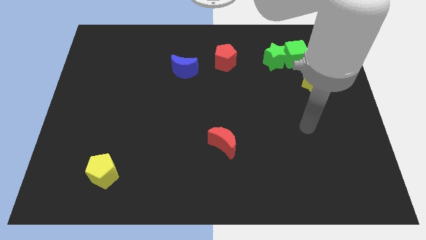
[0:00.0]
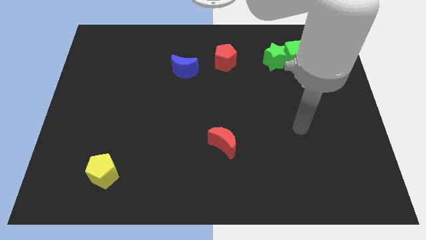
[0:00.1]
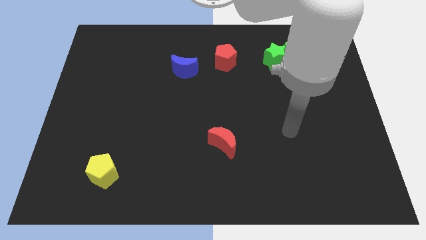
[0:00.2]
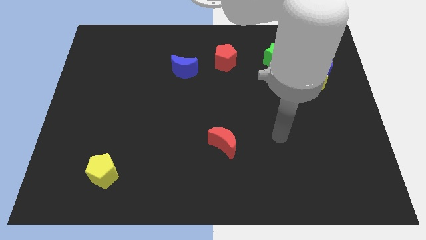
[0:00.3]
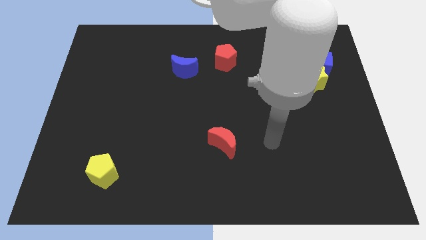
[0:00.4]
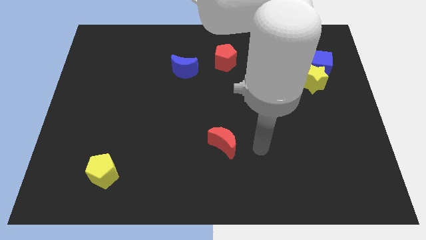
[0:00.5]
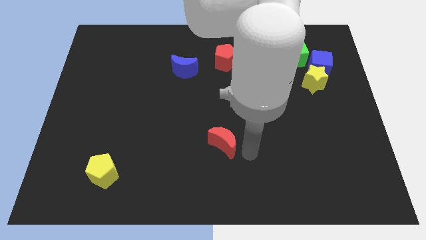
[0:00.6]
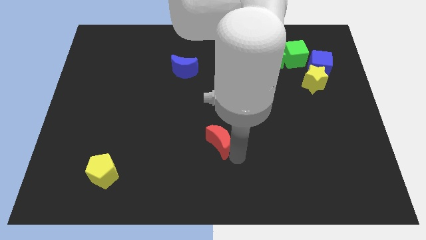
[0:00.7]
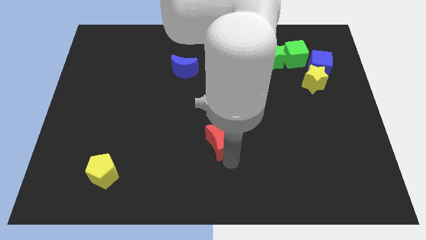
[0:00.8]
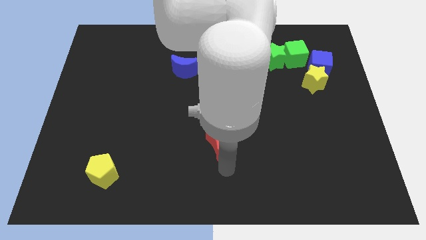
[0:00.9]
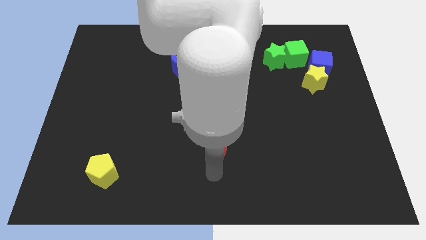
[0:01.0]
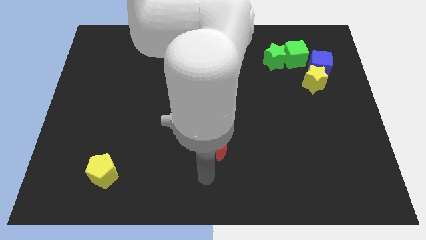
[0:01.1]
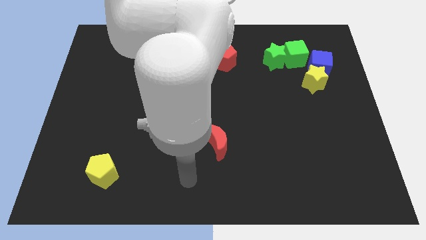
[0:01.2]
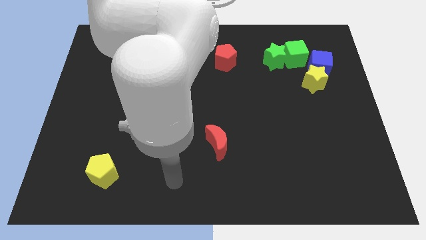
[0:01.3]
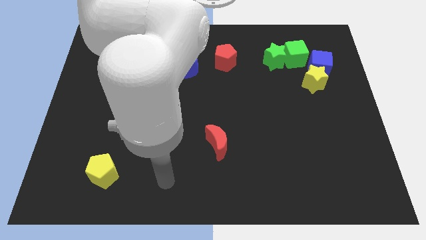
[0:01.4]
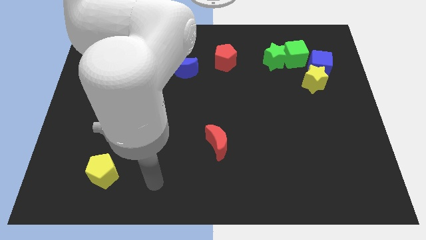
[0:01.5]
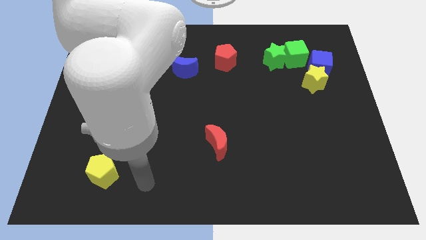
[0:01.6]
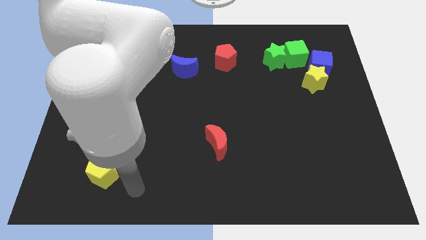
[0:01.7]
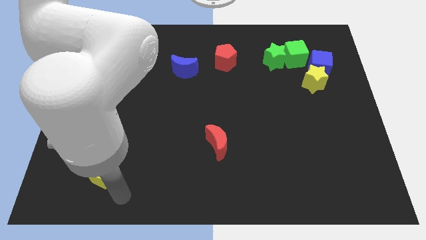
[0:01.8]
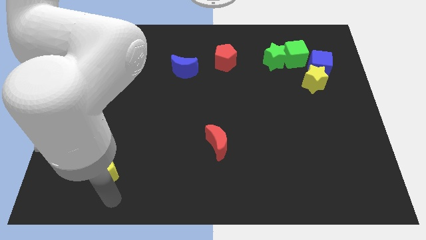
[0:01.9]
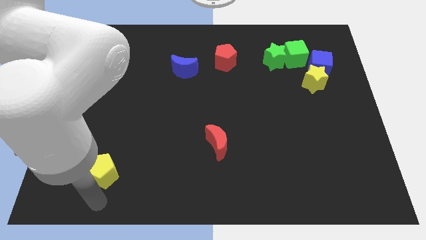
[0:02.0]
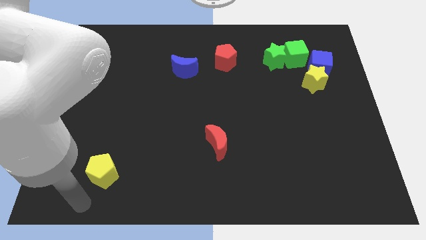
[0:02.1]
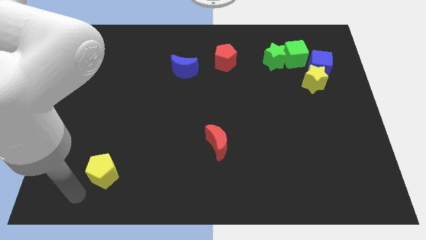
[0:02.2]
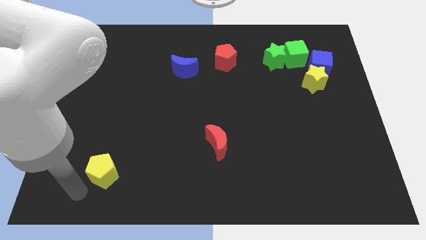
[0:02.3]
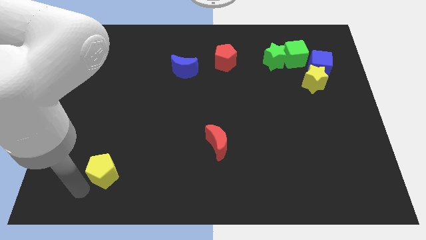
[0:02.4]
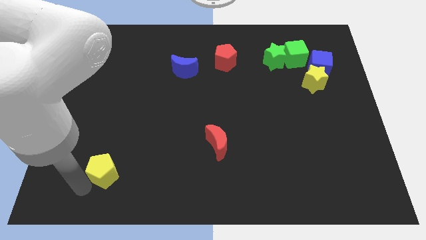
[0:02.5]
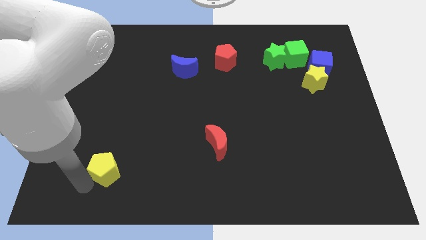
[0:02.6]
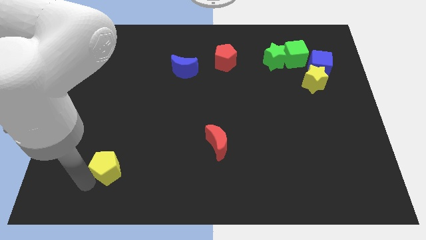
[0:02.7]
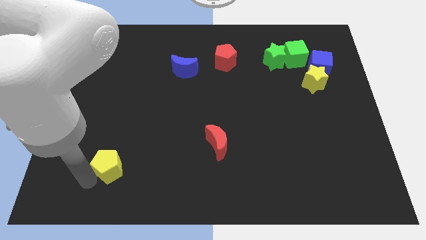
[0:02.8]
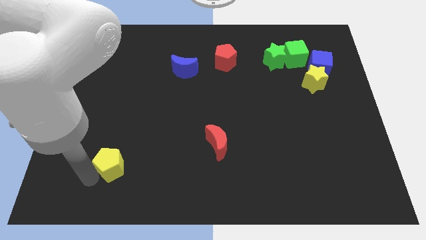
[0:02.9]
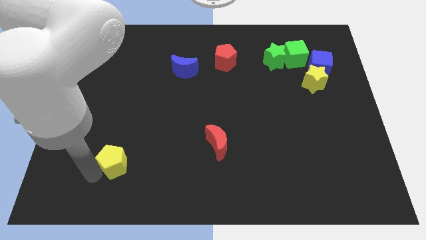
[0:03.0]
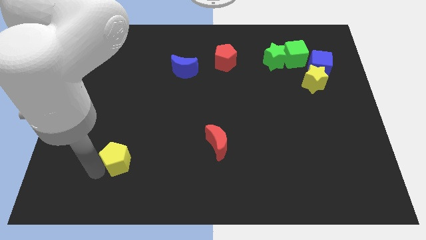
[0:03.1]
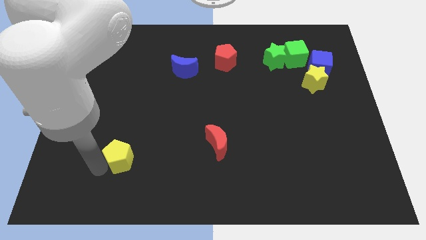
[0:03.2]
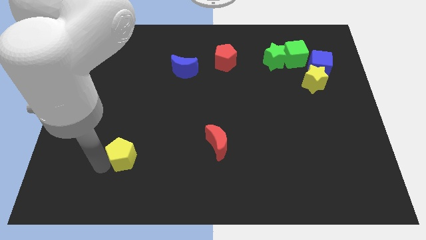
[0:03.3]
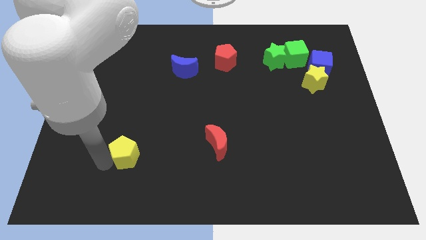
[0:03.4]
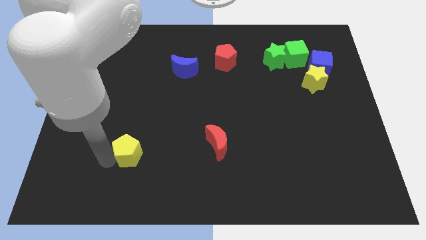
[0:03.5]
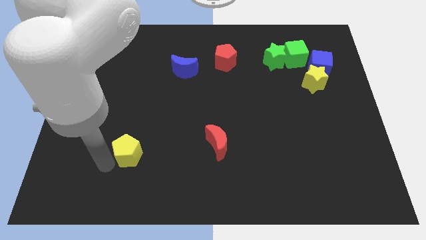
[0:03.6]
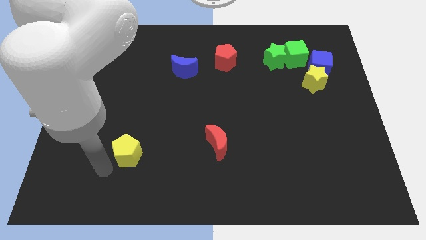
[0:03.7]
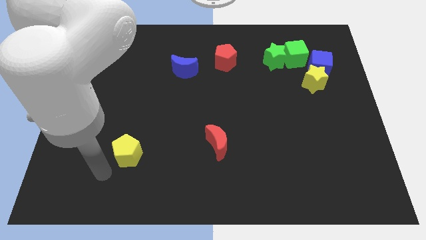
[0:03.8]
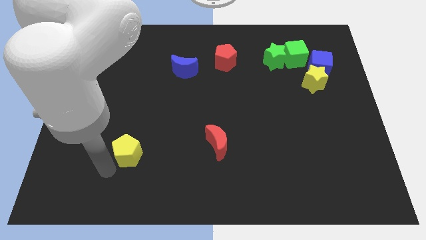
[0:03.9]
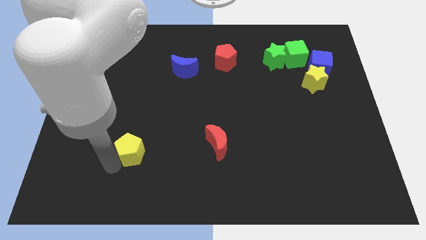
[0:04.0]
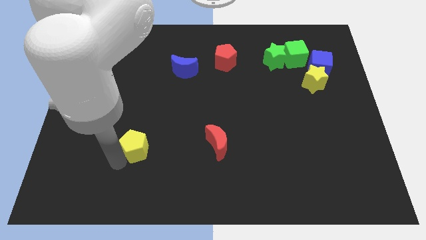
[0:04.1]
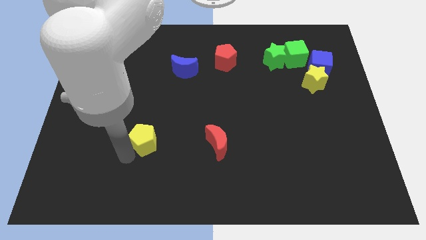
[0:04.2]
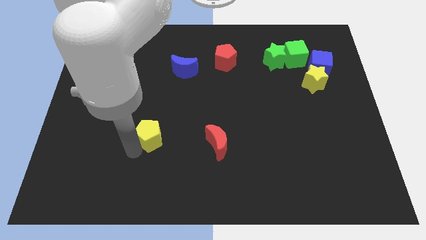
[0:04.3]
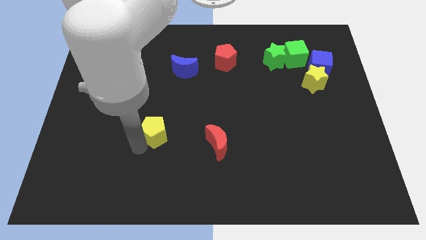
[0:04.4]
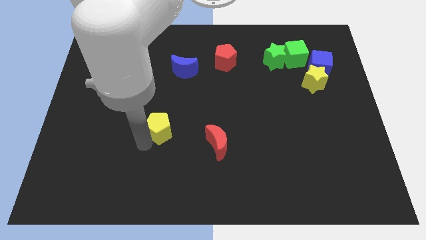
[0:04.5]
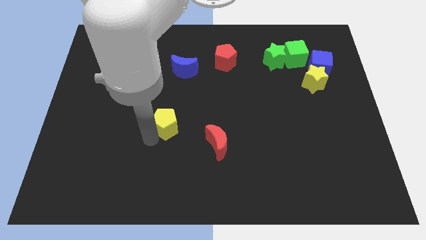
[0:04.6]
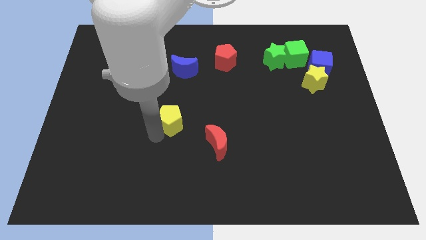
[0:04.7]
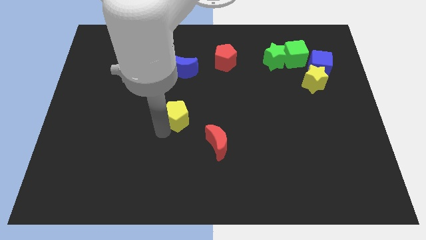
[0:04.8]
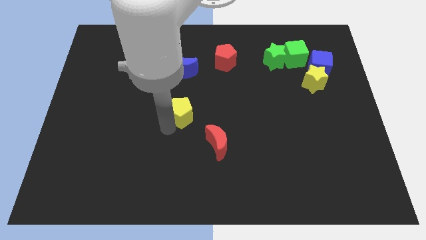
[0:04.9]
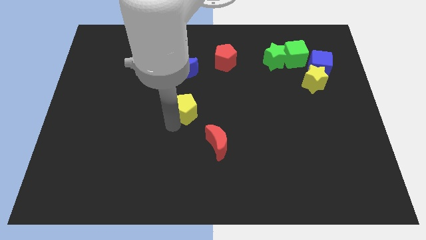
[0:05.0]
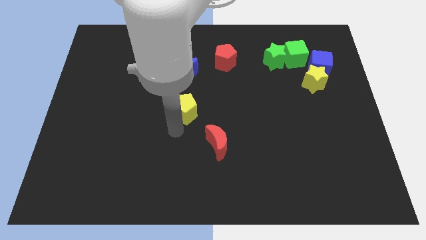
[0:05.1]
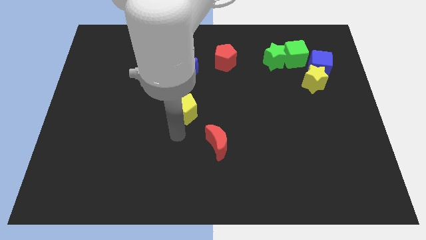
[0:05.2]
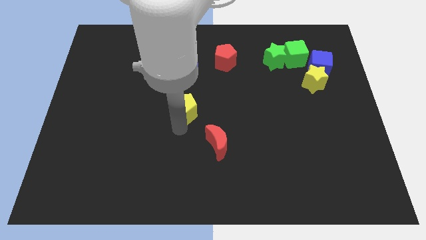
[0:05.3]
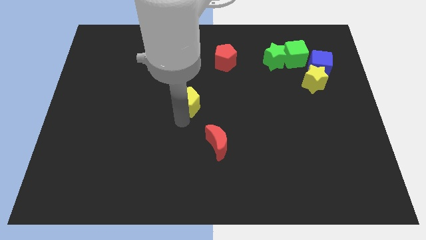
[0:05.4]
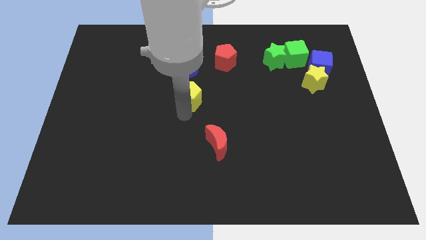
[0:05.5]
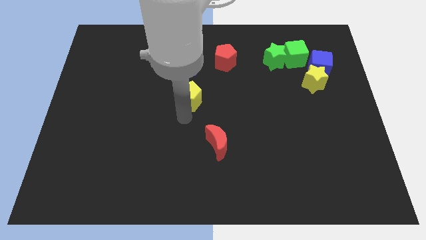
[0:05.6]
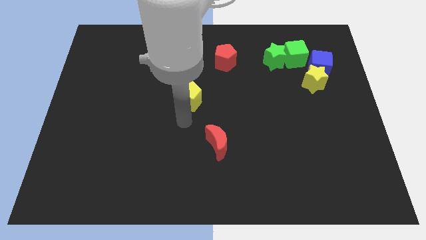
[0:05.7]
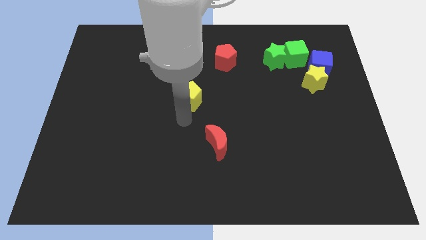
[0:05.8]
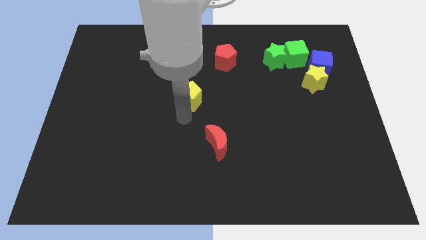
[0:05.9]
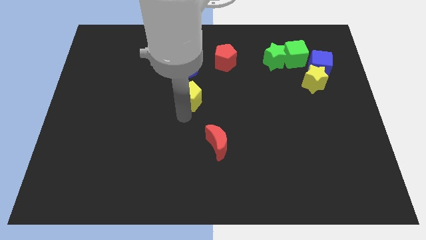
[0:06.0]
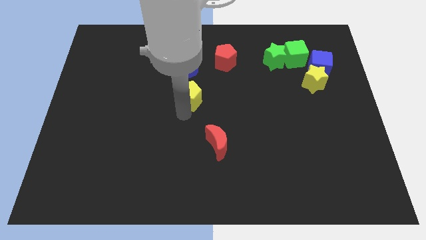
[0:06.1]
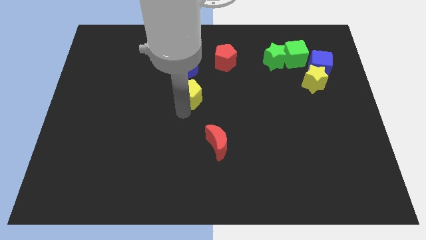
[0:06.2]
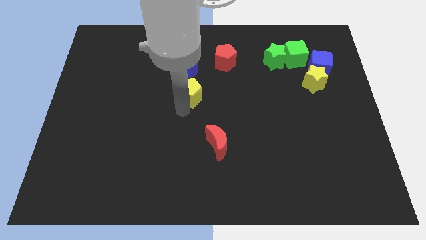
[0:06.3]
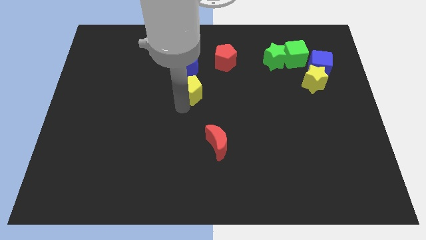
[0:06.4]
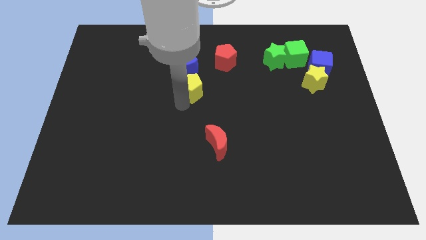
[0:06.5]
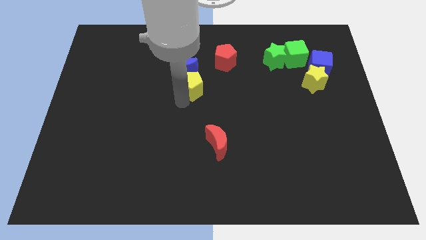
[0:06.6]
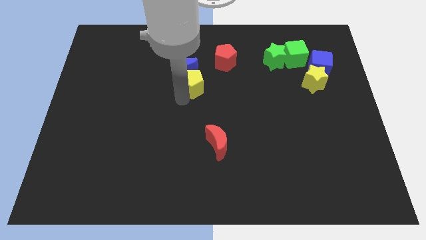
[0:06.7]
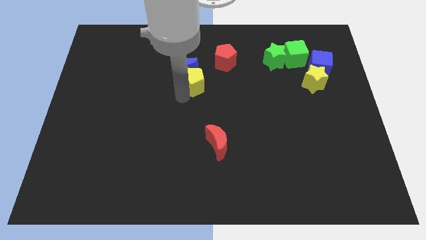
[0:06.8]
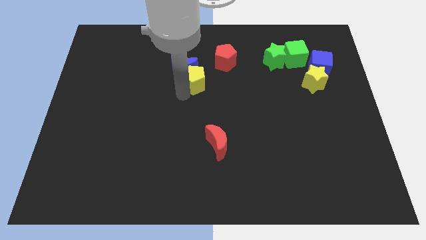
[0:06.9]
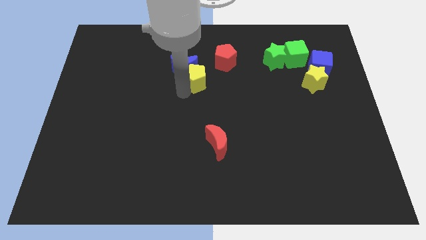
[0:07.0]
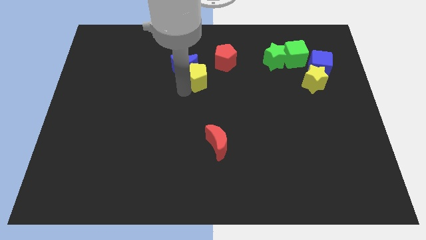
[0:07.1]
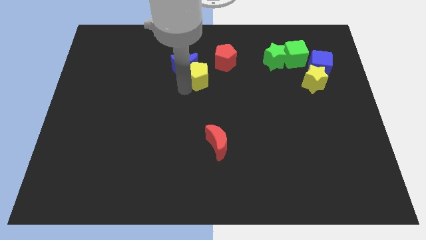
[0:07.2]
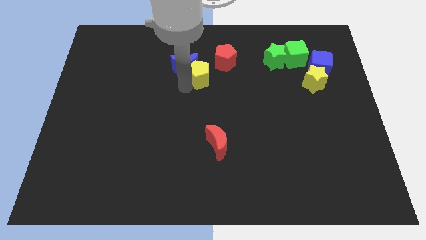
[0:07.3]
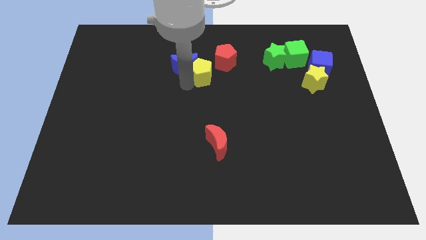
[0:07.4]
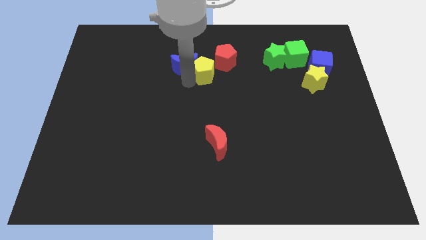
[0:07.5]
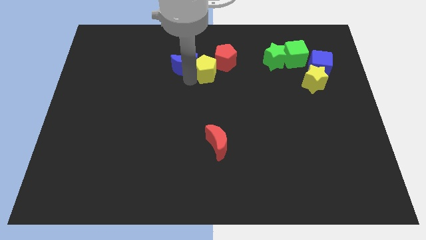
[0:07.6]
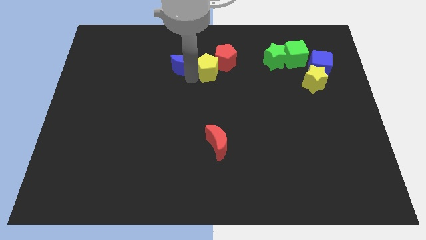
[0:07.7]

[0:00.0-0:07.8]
push the yellow pentagon next to the red pentagon
